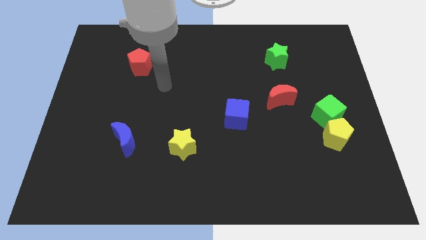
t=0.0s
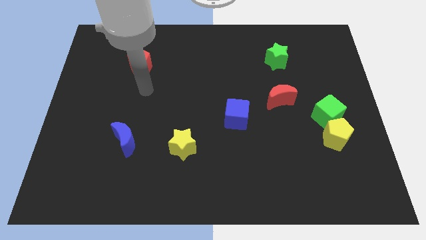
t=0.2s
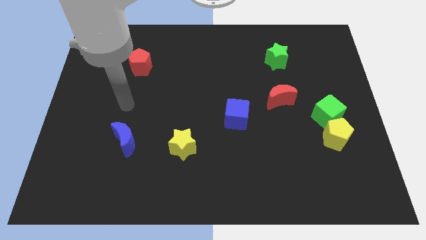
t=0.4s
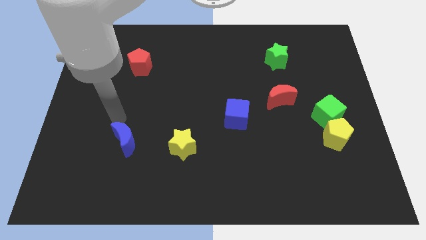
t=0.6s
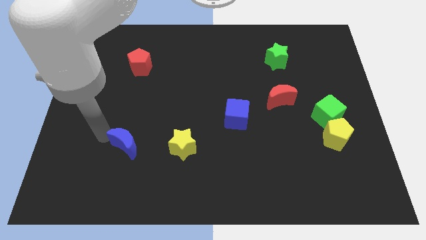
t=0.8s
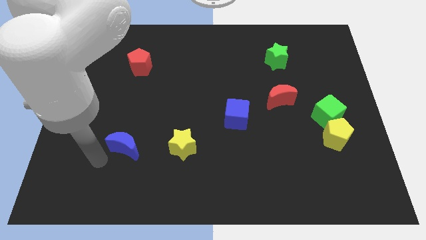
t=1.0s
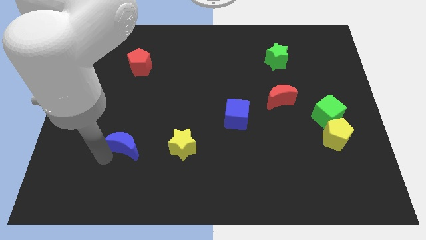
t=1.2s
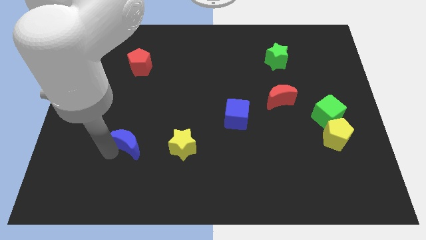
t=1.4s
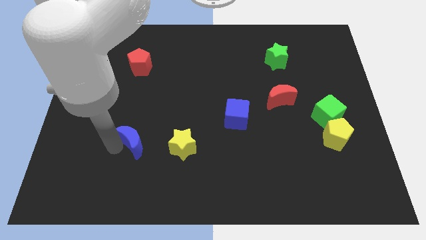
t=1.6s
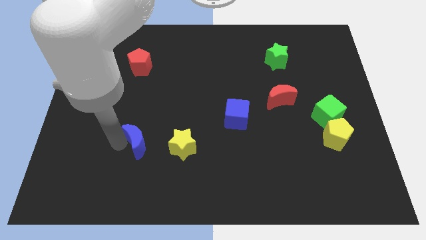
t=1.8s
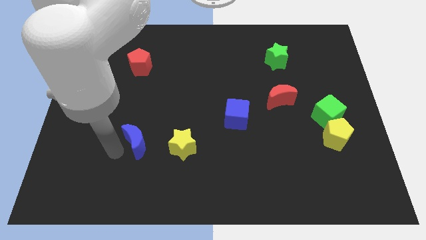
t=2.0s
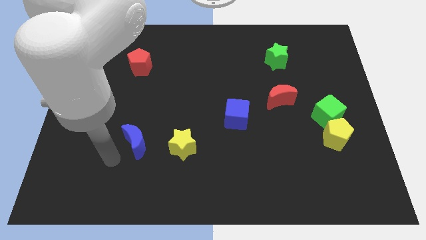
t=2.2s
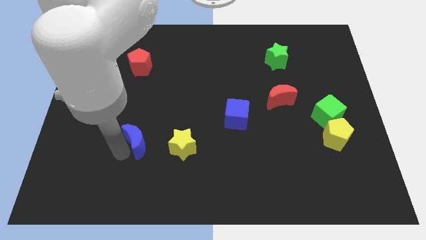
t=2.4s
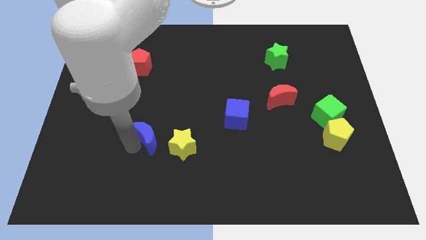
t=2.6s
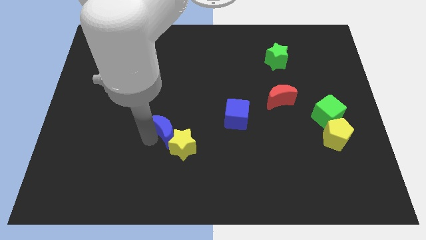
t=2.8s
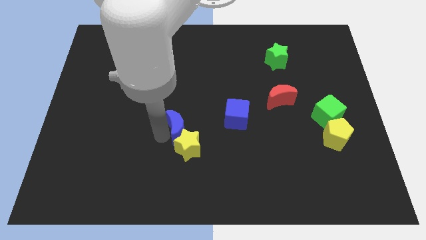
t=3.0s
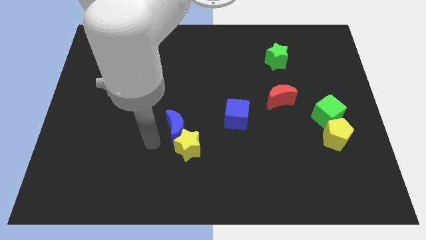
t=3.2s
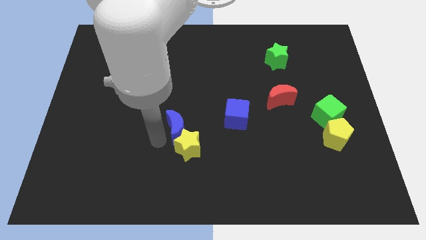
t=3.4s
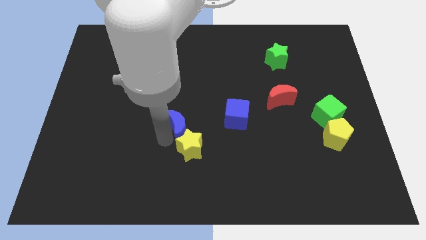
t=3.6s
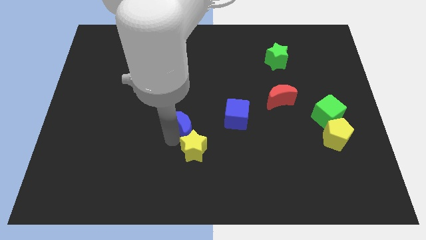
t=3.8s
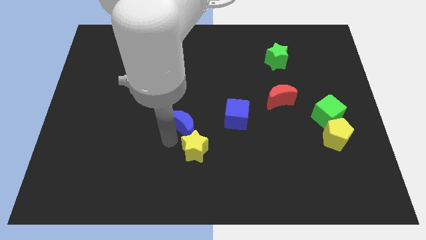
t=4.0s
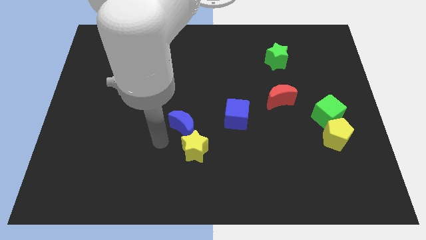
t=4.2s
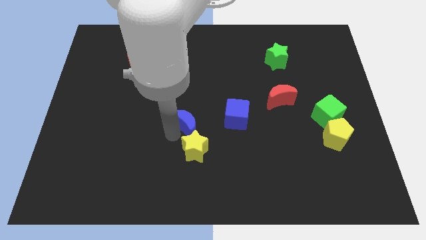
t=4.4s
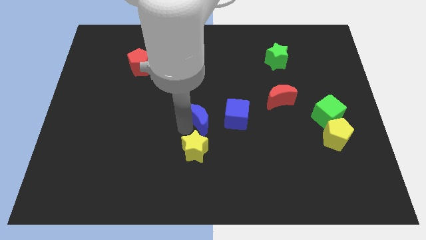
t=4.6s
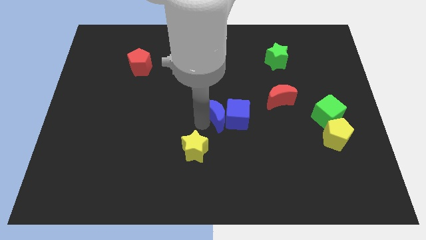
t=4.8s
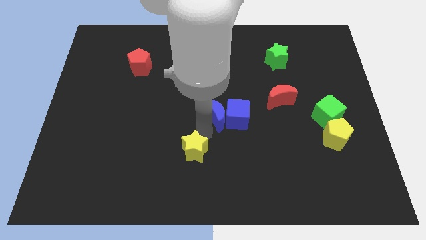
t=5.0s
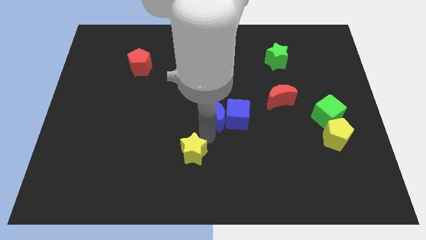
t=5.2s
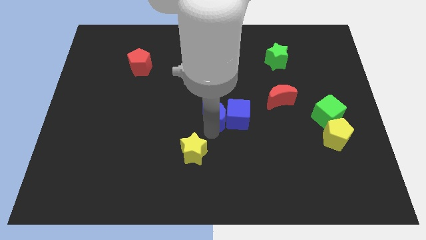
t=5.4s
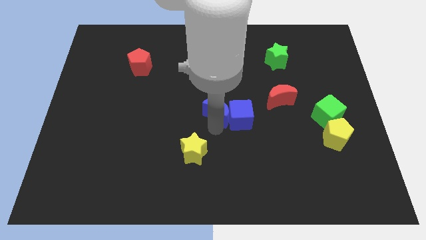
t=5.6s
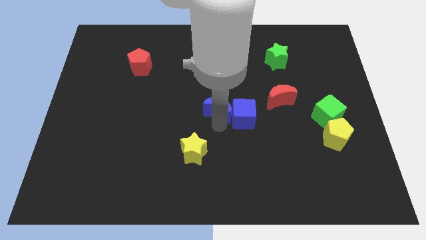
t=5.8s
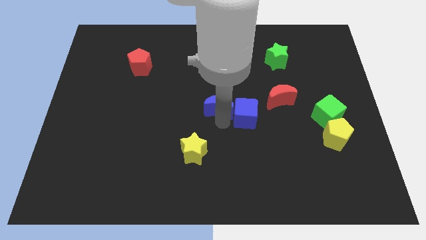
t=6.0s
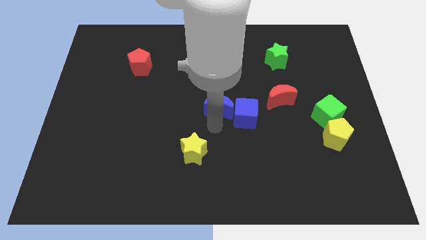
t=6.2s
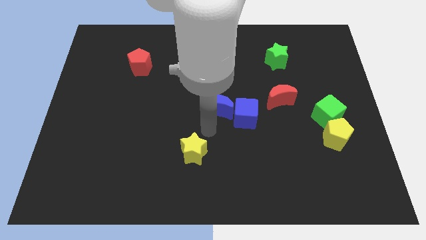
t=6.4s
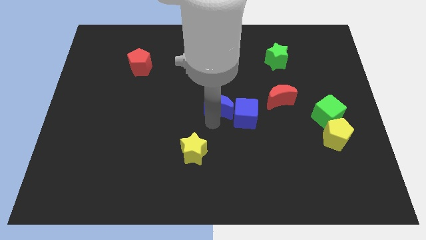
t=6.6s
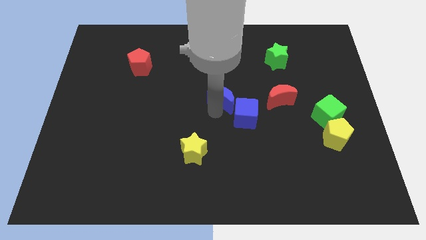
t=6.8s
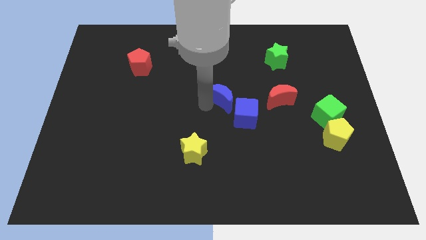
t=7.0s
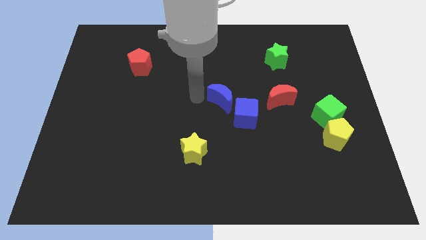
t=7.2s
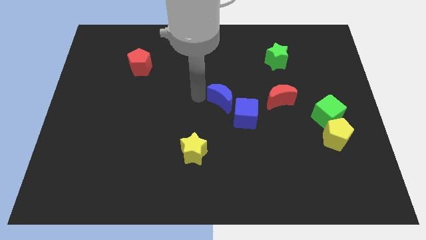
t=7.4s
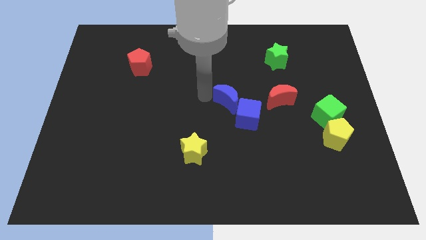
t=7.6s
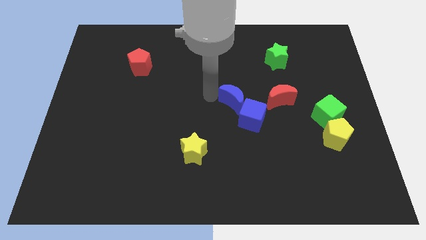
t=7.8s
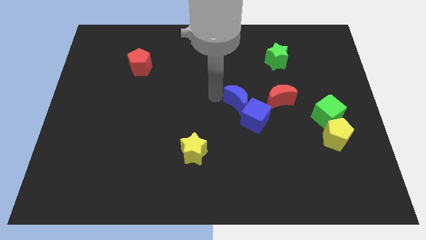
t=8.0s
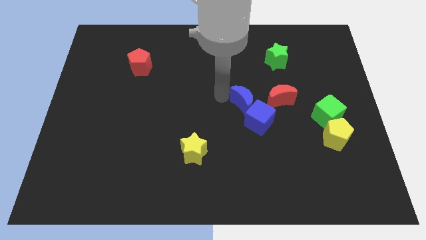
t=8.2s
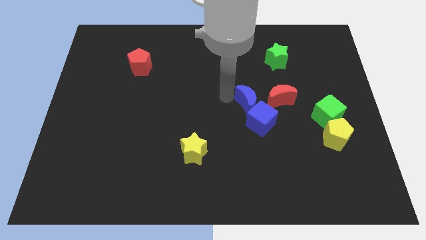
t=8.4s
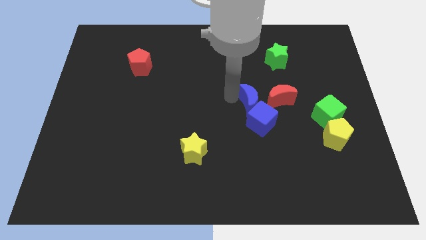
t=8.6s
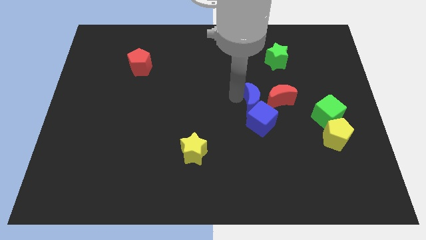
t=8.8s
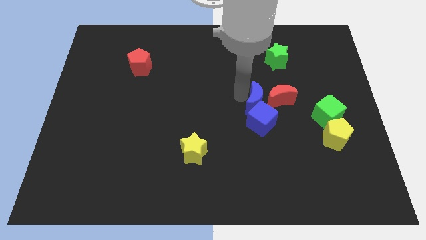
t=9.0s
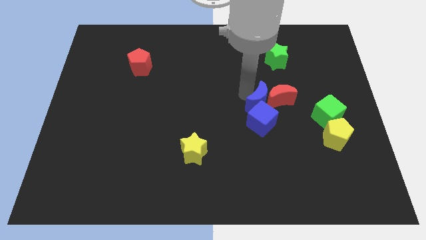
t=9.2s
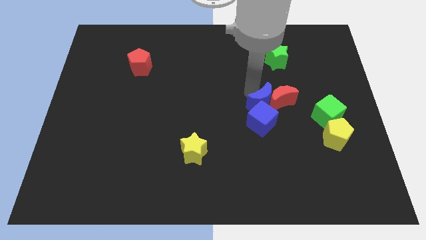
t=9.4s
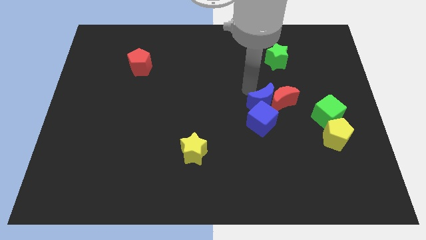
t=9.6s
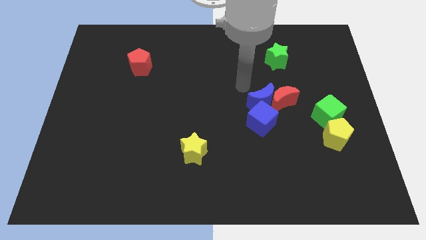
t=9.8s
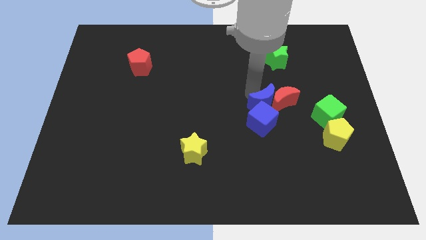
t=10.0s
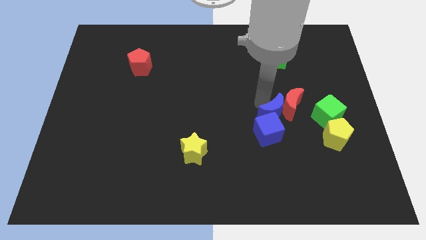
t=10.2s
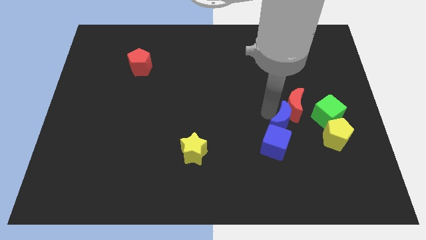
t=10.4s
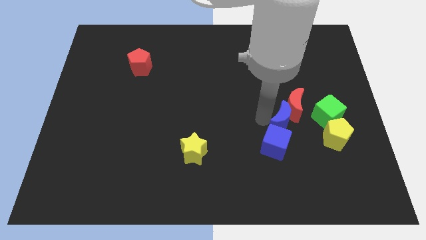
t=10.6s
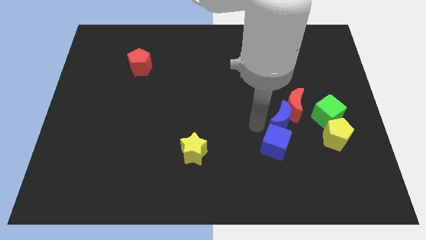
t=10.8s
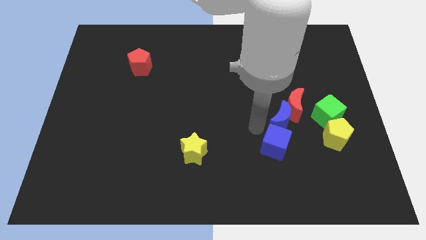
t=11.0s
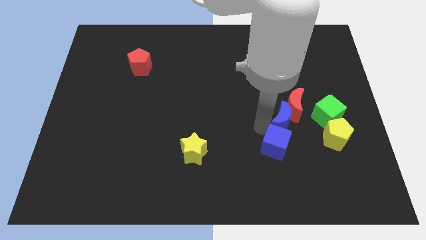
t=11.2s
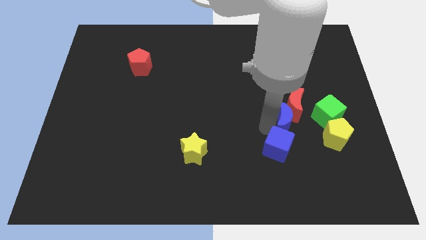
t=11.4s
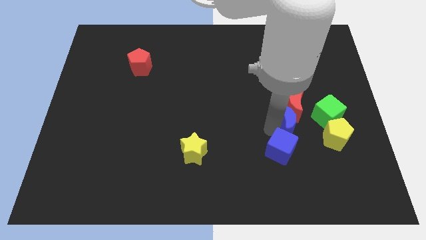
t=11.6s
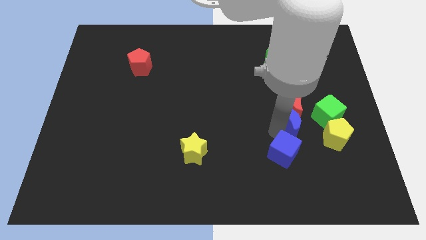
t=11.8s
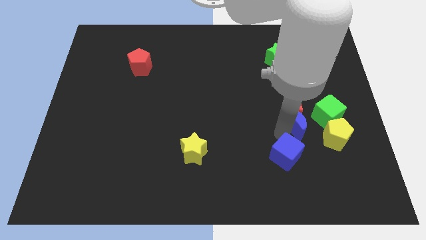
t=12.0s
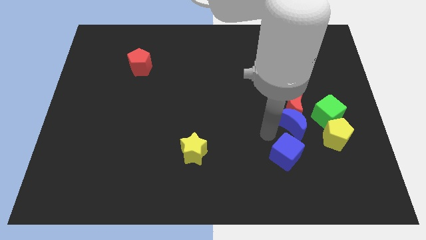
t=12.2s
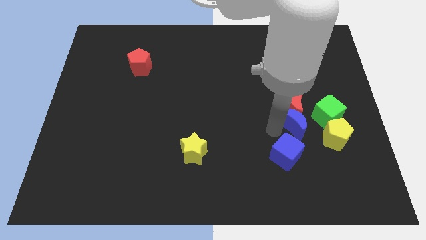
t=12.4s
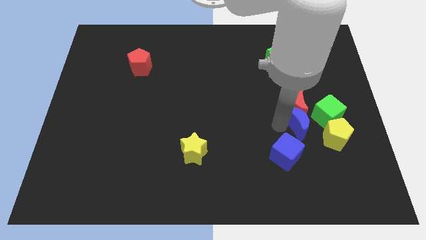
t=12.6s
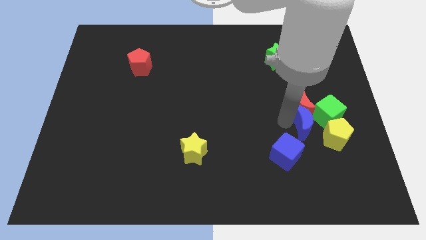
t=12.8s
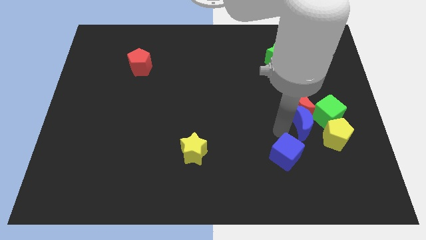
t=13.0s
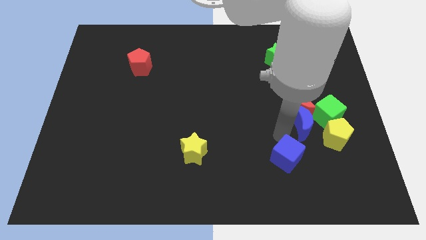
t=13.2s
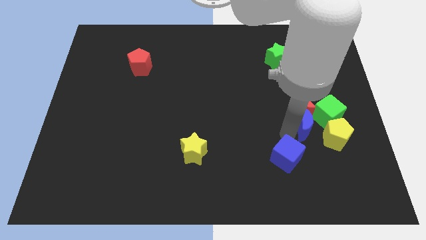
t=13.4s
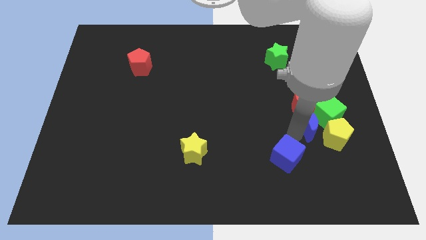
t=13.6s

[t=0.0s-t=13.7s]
move the blue moon close to the green cube

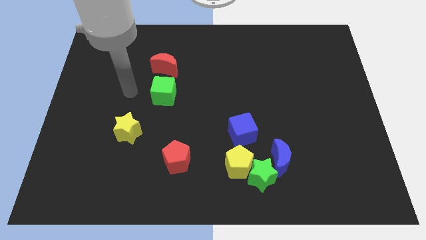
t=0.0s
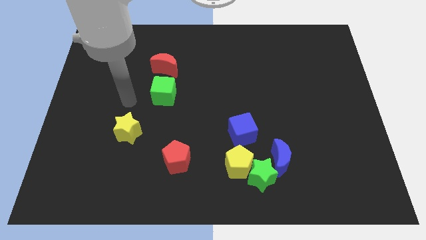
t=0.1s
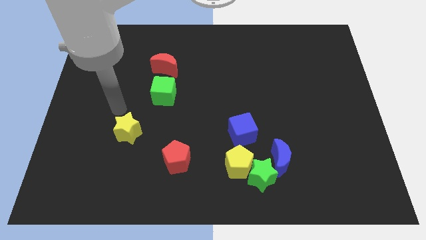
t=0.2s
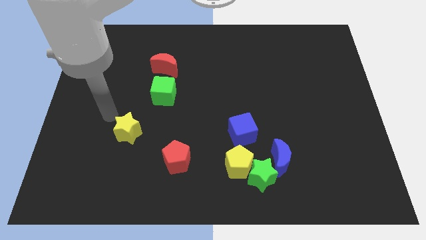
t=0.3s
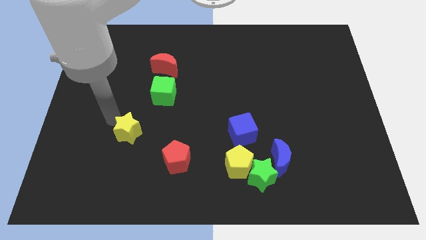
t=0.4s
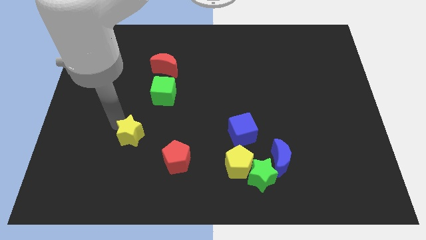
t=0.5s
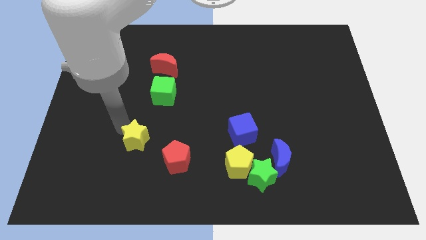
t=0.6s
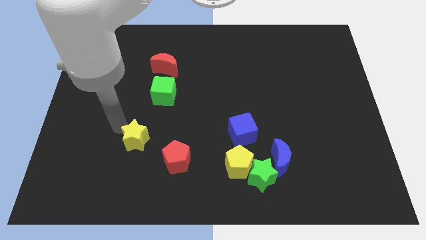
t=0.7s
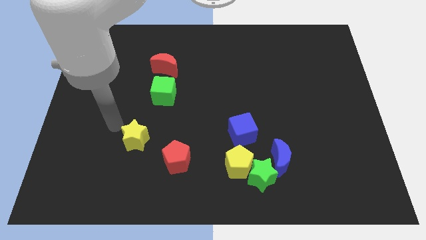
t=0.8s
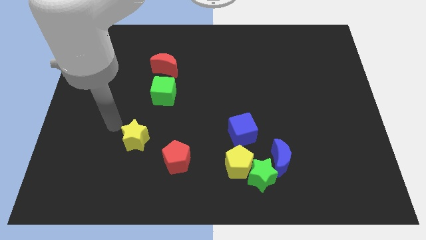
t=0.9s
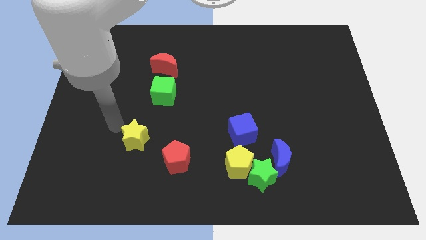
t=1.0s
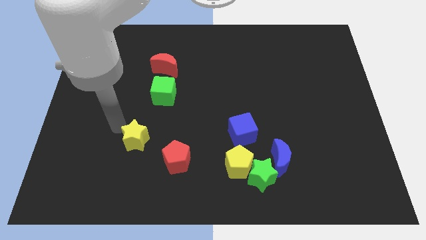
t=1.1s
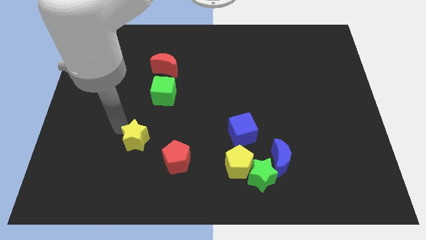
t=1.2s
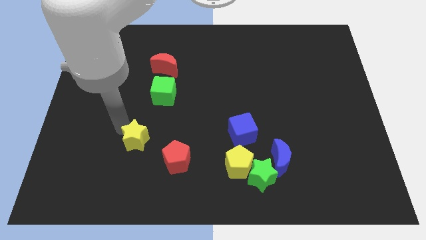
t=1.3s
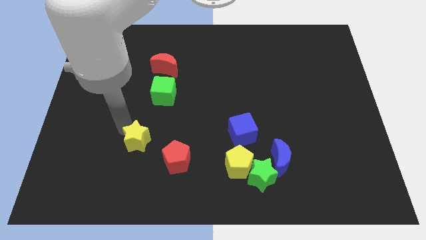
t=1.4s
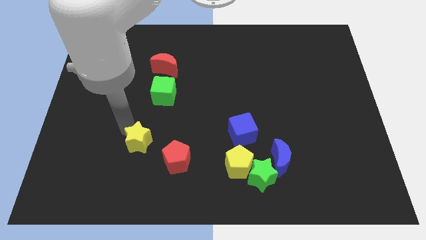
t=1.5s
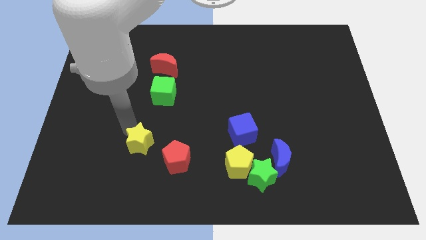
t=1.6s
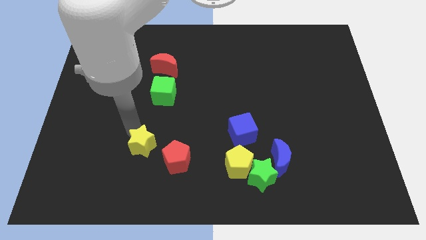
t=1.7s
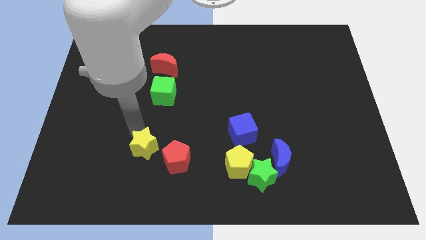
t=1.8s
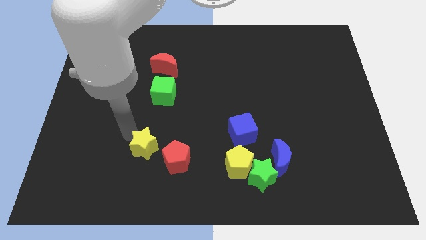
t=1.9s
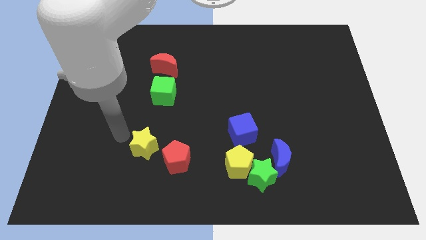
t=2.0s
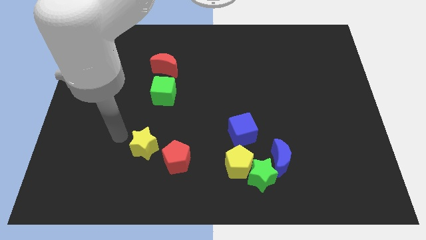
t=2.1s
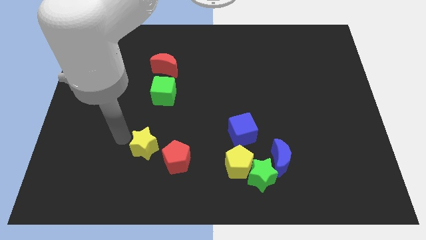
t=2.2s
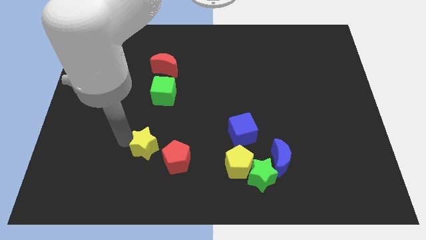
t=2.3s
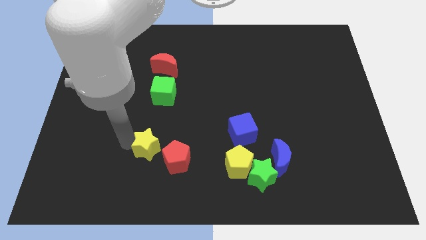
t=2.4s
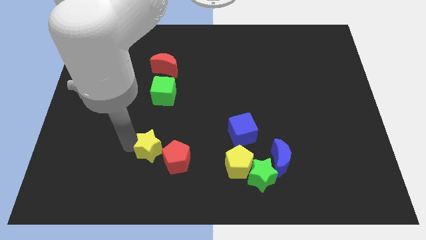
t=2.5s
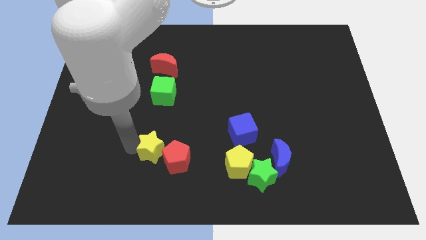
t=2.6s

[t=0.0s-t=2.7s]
put the yellow star next to the red pentagon
